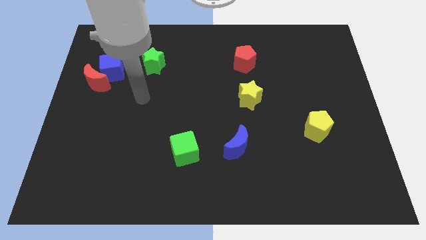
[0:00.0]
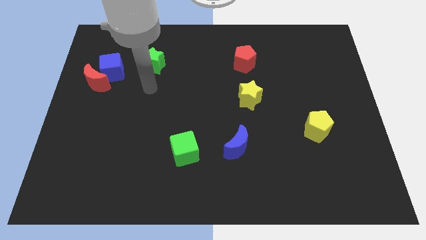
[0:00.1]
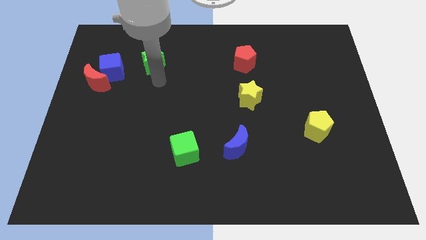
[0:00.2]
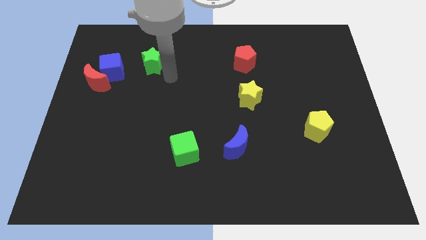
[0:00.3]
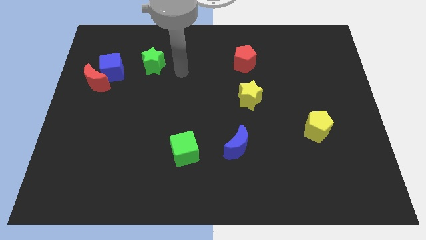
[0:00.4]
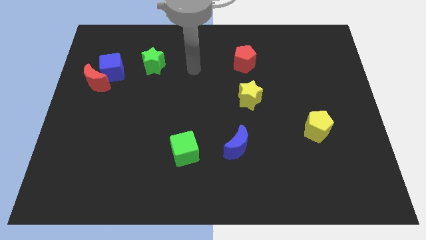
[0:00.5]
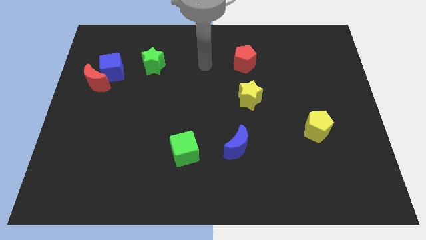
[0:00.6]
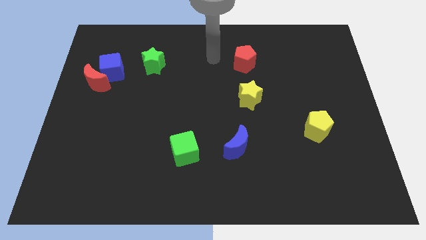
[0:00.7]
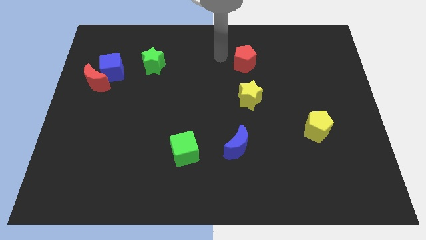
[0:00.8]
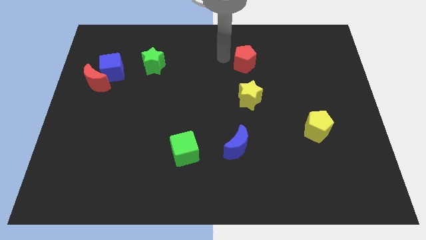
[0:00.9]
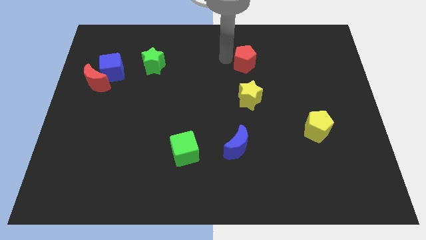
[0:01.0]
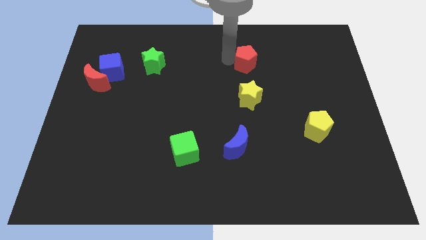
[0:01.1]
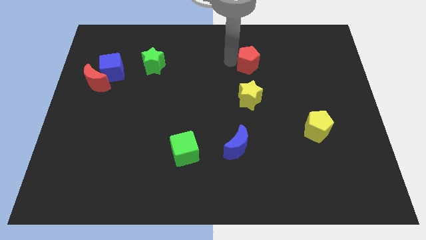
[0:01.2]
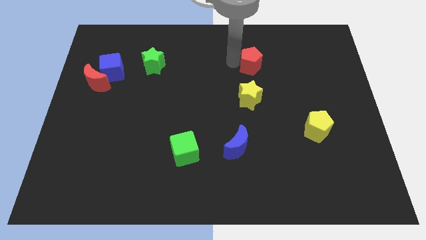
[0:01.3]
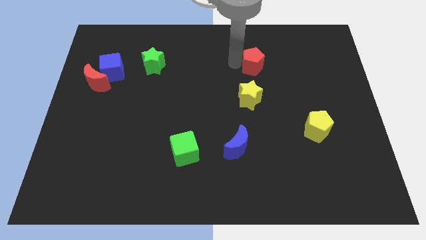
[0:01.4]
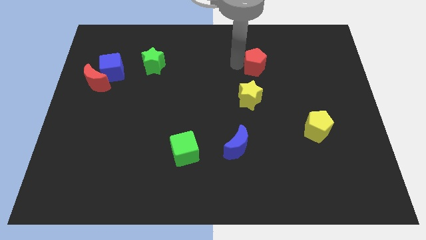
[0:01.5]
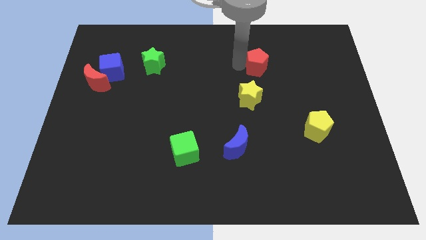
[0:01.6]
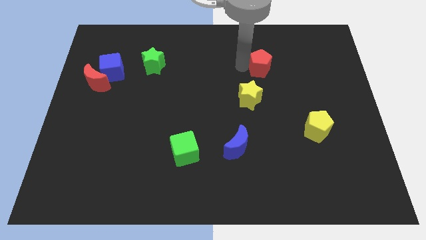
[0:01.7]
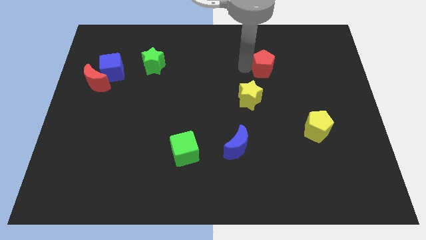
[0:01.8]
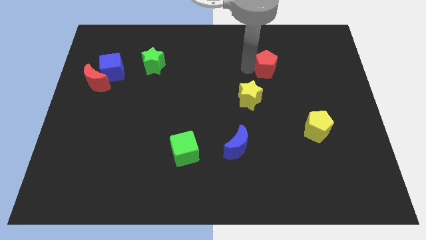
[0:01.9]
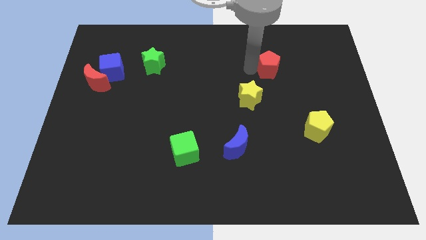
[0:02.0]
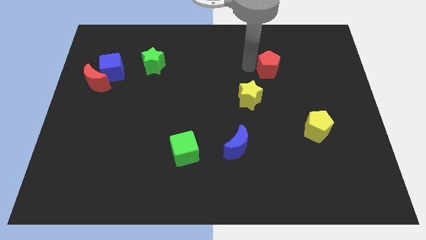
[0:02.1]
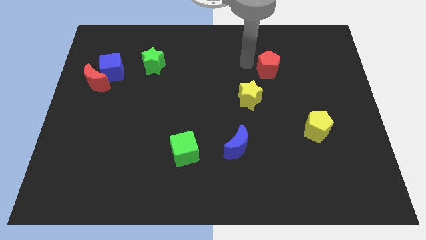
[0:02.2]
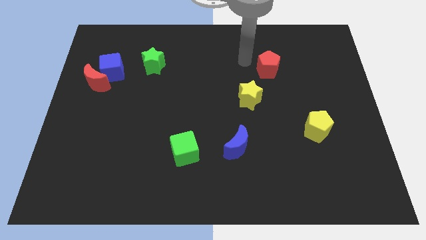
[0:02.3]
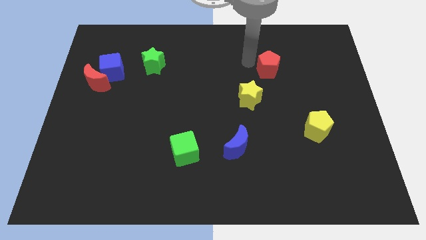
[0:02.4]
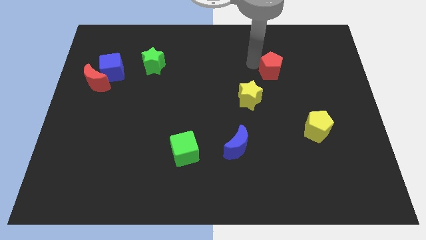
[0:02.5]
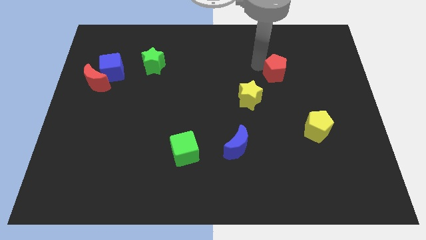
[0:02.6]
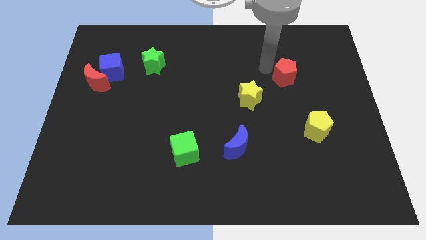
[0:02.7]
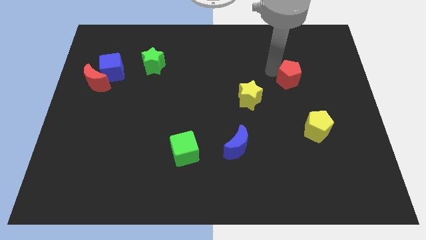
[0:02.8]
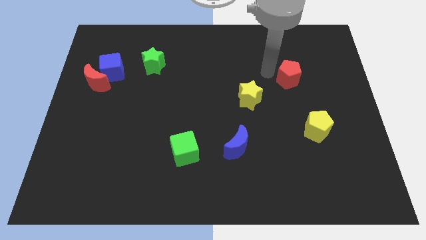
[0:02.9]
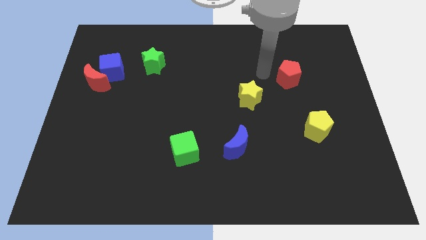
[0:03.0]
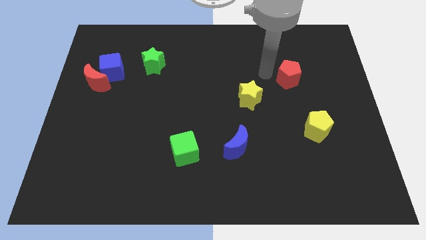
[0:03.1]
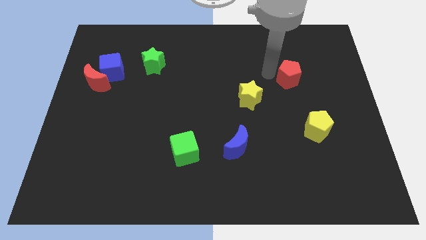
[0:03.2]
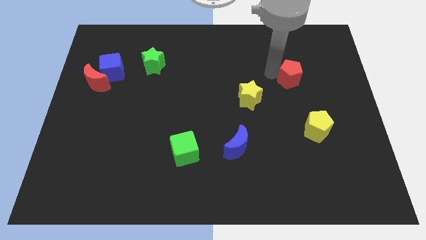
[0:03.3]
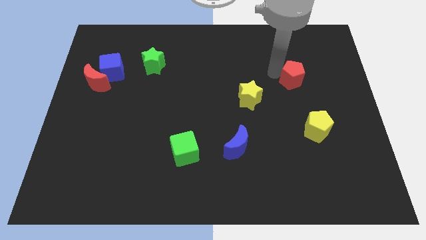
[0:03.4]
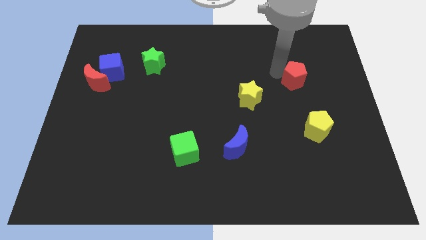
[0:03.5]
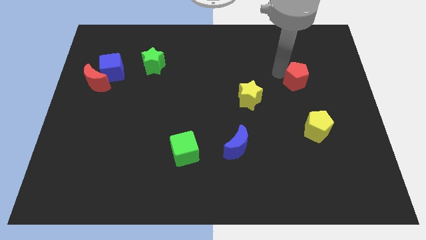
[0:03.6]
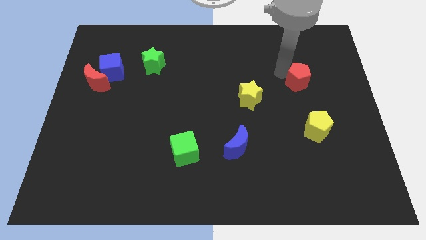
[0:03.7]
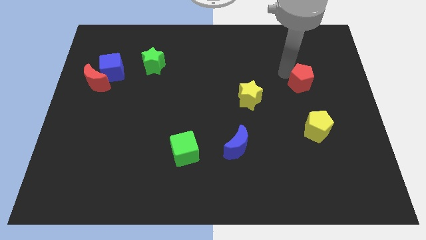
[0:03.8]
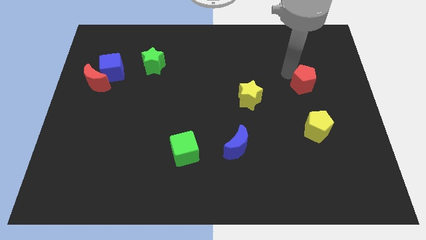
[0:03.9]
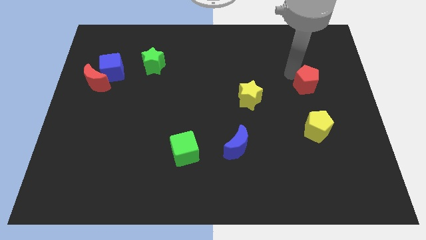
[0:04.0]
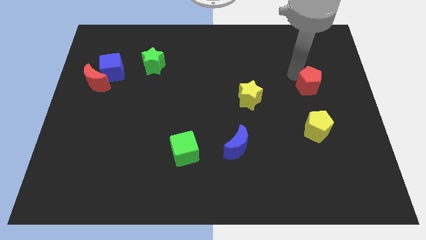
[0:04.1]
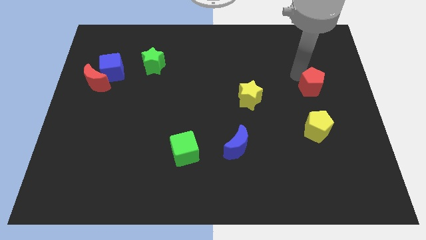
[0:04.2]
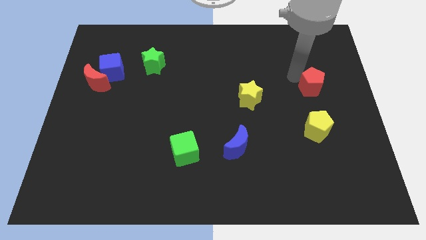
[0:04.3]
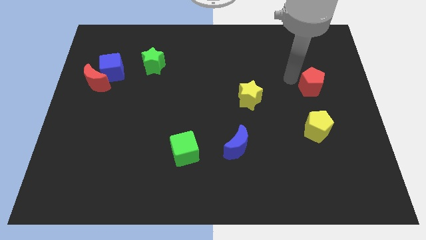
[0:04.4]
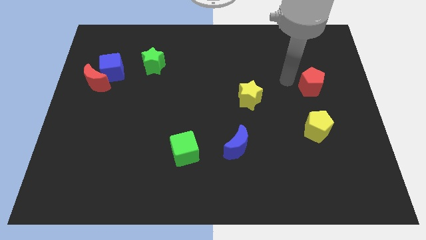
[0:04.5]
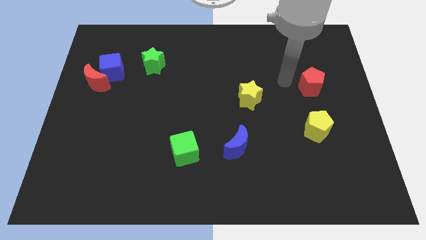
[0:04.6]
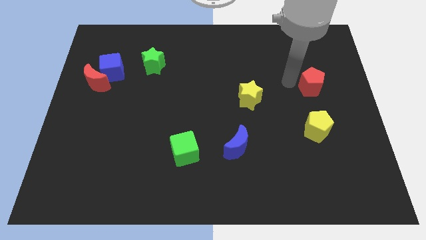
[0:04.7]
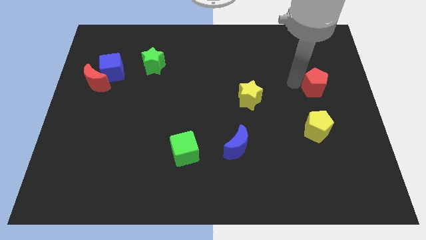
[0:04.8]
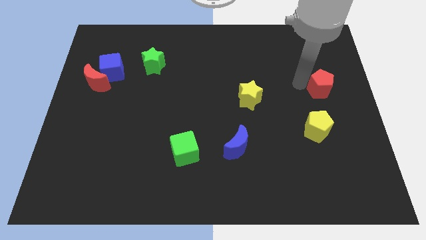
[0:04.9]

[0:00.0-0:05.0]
put the red pentagon to the center right

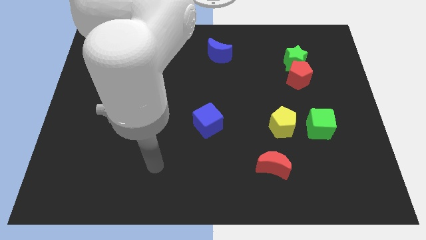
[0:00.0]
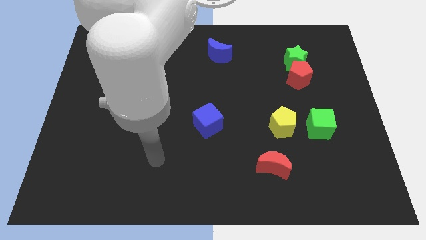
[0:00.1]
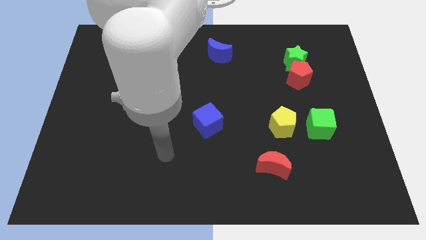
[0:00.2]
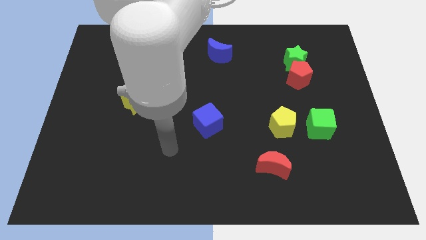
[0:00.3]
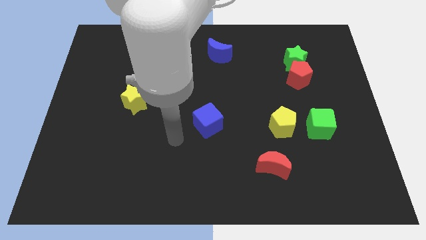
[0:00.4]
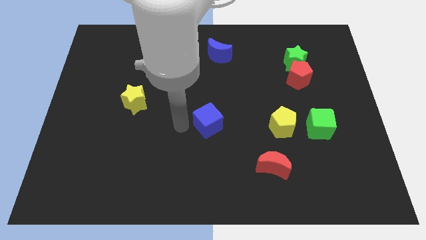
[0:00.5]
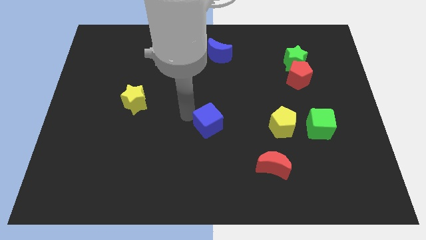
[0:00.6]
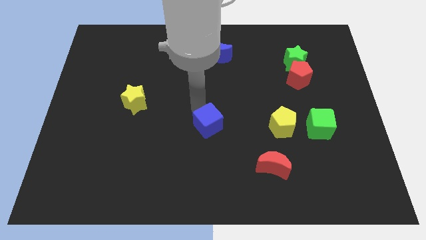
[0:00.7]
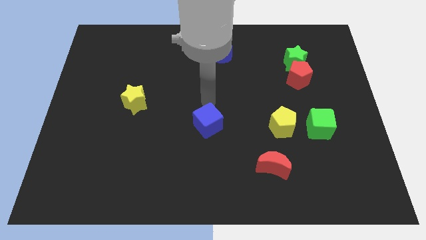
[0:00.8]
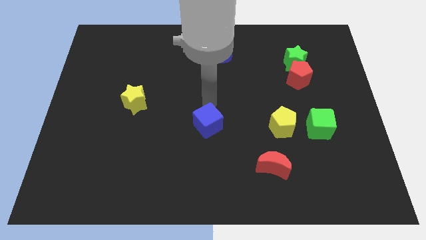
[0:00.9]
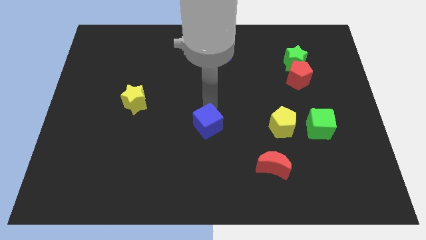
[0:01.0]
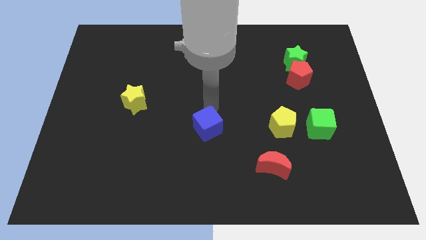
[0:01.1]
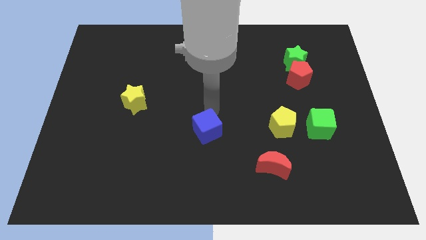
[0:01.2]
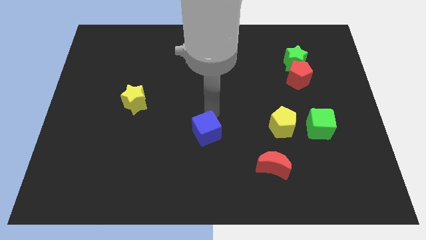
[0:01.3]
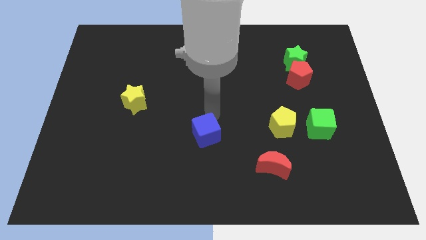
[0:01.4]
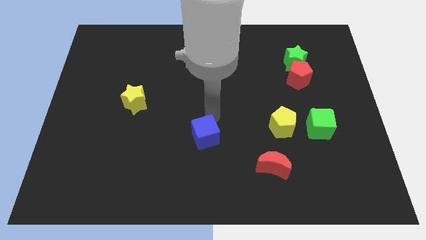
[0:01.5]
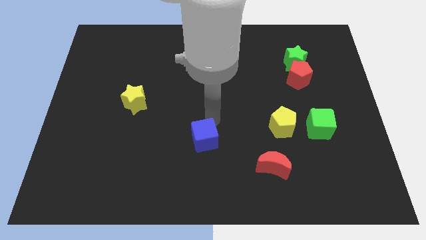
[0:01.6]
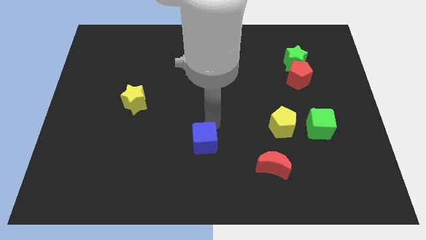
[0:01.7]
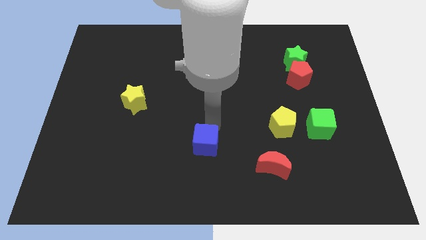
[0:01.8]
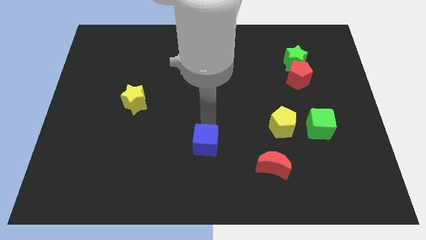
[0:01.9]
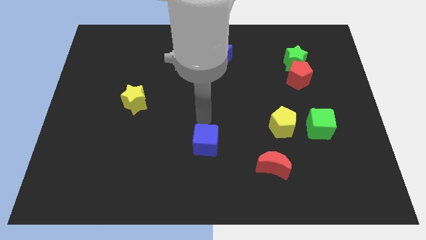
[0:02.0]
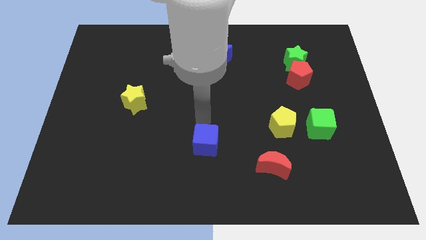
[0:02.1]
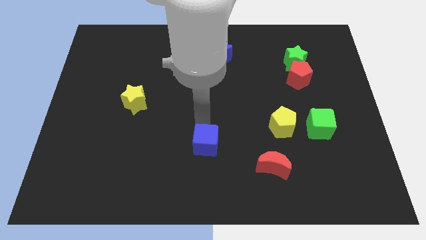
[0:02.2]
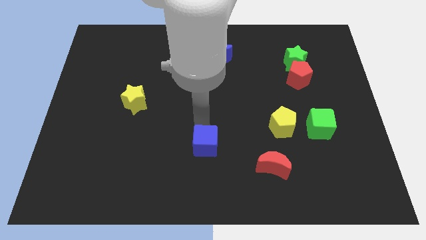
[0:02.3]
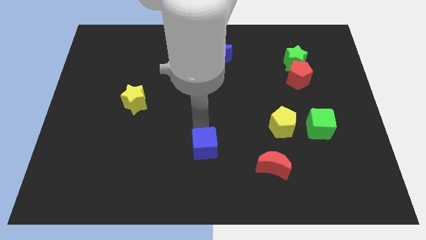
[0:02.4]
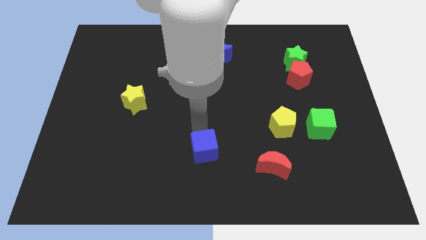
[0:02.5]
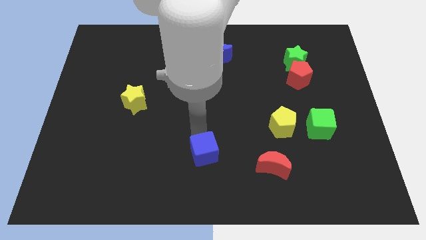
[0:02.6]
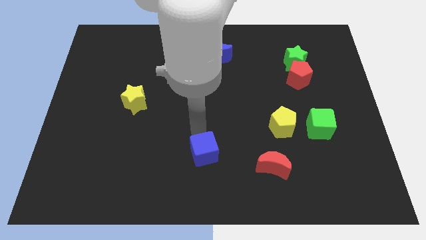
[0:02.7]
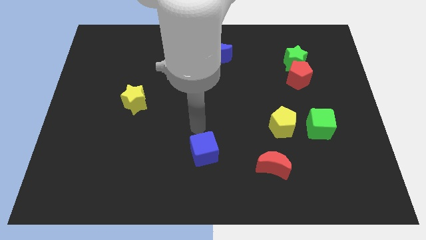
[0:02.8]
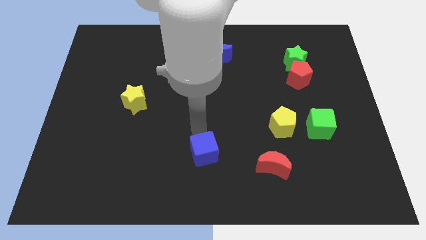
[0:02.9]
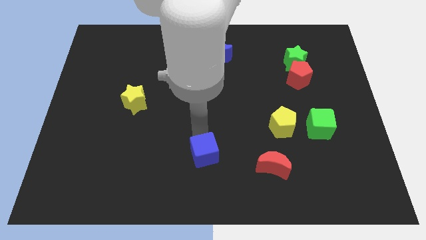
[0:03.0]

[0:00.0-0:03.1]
move the blue cube to the bottom

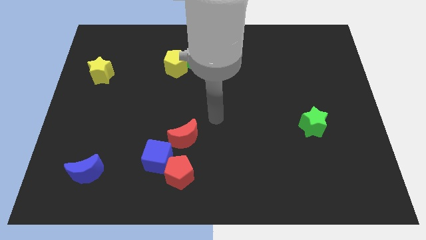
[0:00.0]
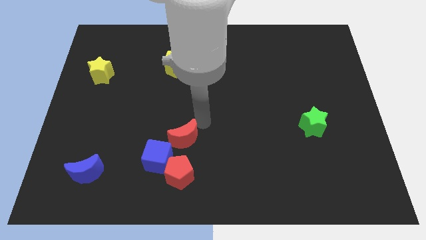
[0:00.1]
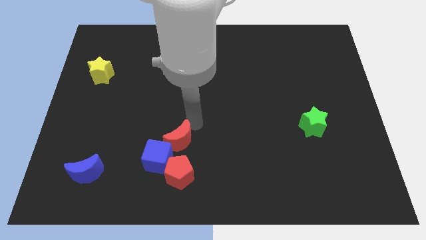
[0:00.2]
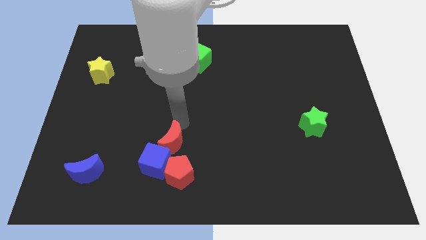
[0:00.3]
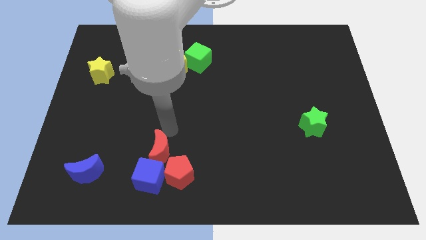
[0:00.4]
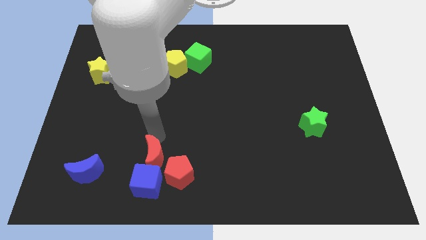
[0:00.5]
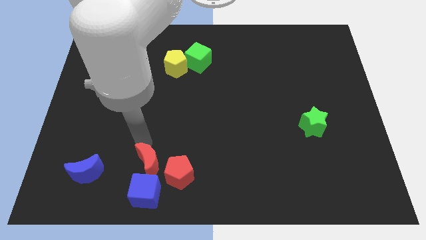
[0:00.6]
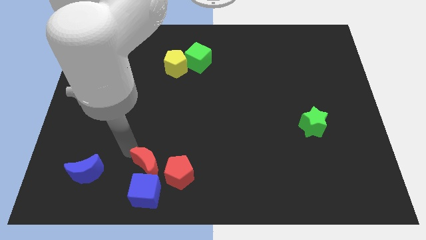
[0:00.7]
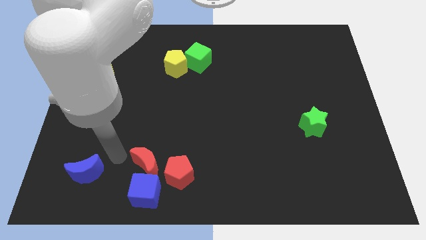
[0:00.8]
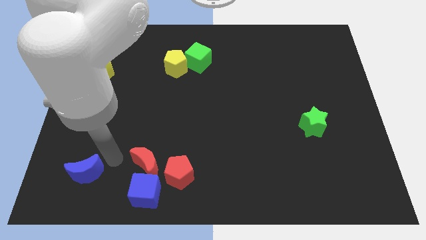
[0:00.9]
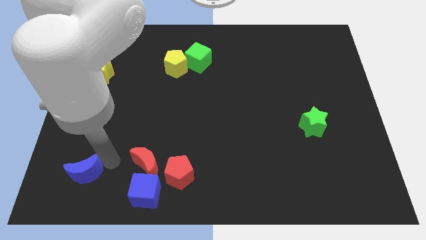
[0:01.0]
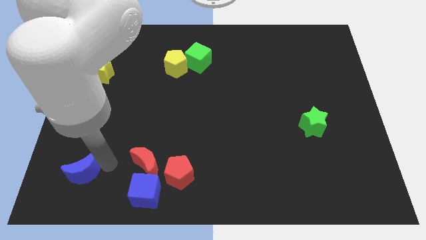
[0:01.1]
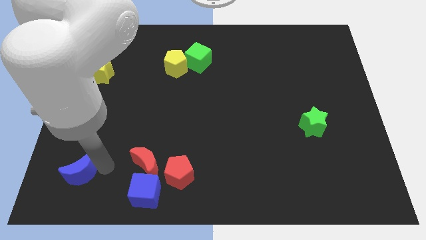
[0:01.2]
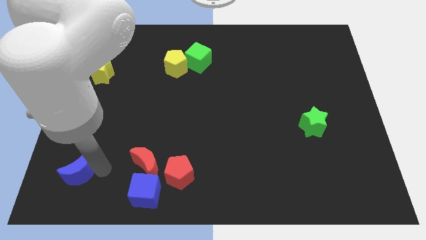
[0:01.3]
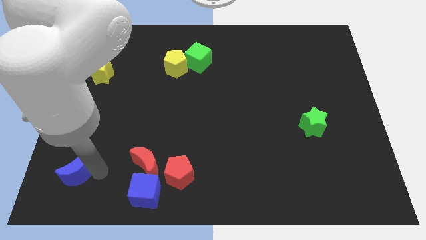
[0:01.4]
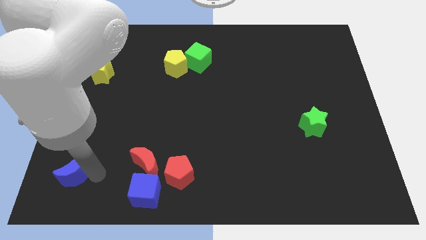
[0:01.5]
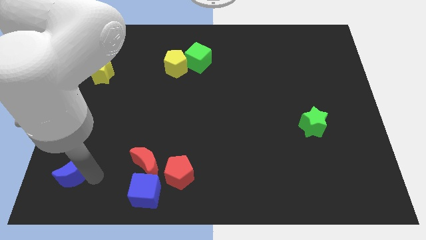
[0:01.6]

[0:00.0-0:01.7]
put the blue moon to the bottom left corner
